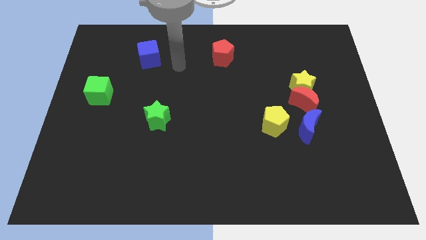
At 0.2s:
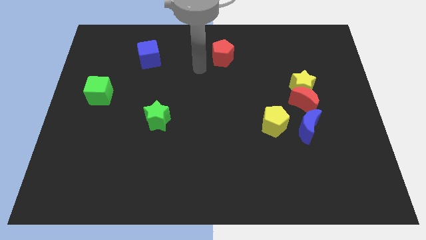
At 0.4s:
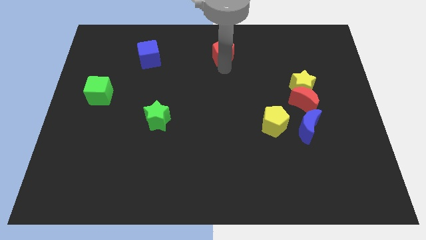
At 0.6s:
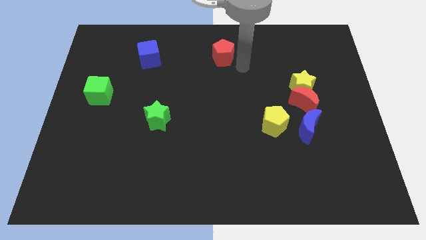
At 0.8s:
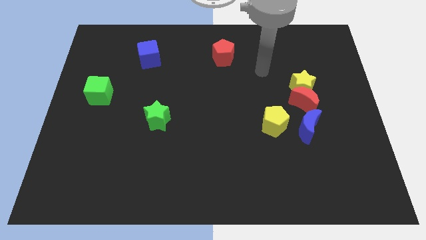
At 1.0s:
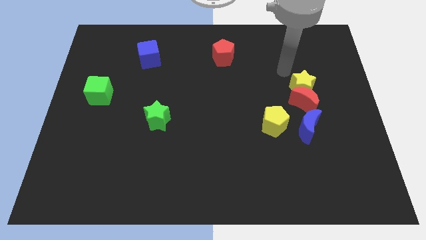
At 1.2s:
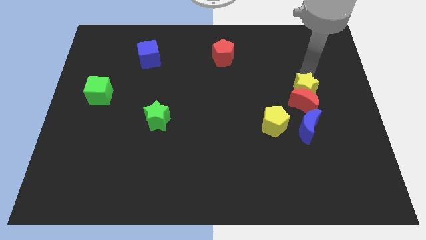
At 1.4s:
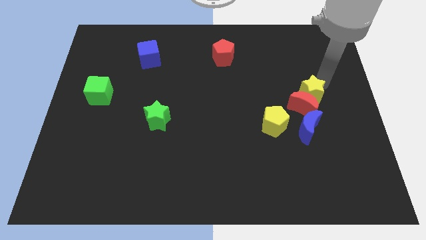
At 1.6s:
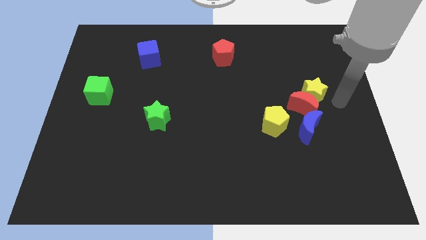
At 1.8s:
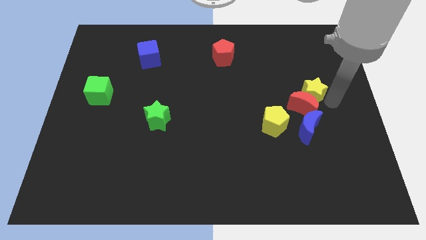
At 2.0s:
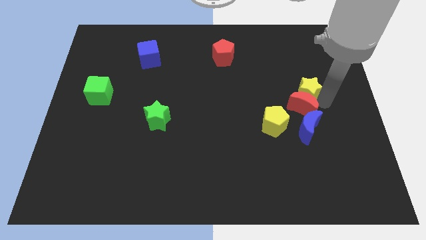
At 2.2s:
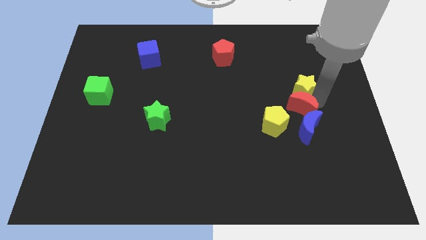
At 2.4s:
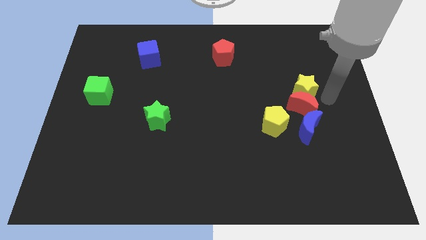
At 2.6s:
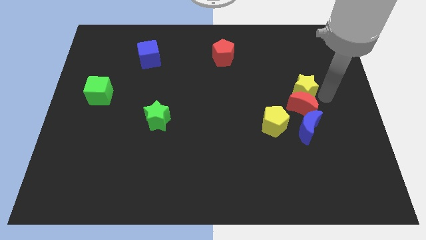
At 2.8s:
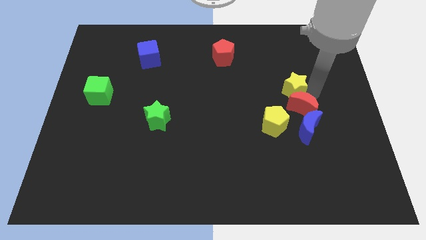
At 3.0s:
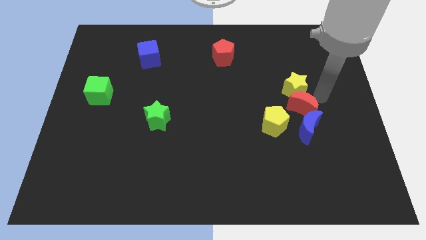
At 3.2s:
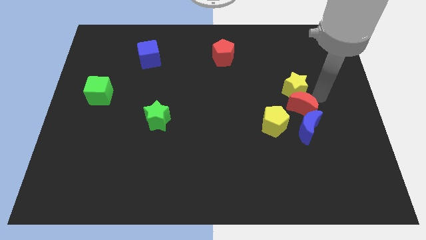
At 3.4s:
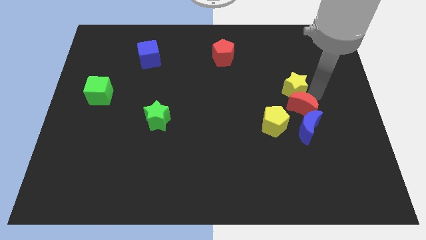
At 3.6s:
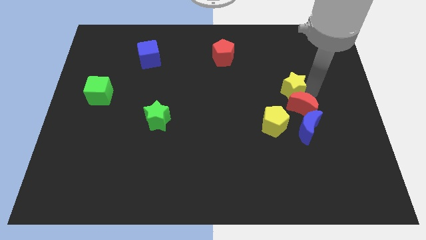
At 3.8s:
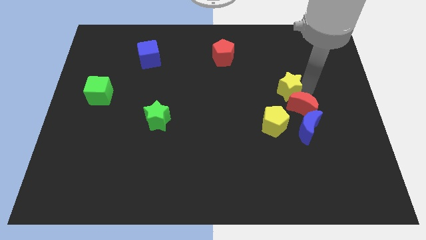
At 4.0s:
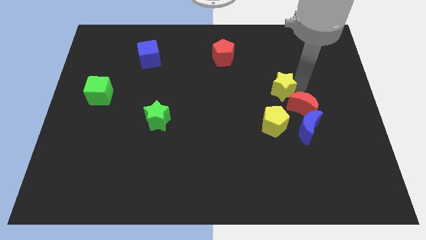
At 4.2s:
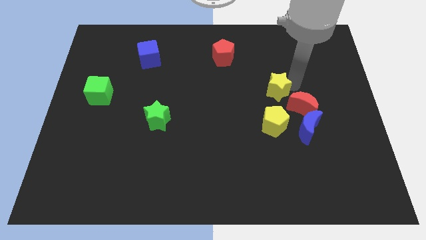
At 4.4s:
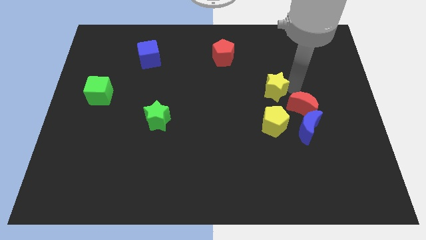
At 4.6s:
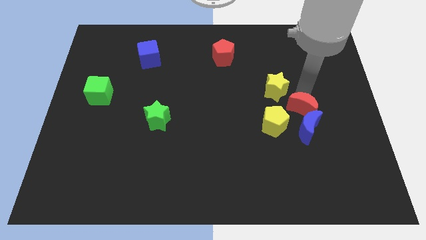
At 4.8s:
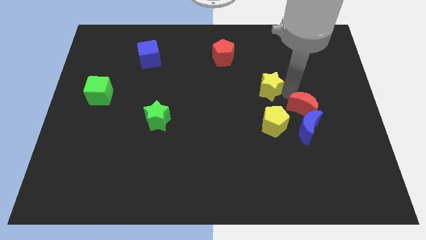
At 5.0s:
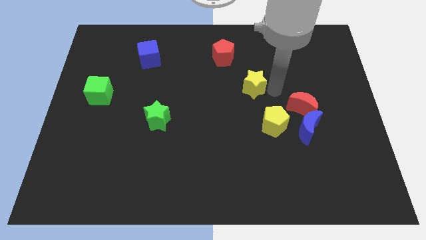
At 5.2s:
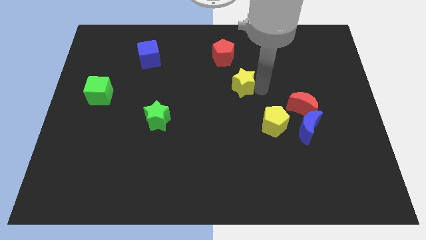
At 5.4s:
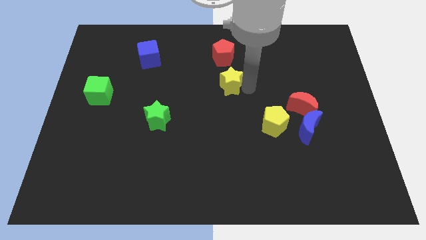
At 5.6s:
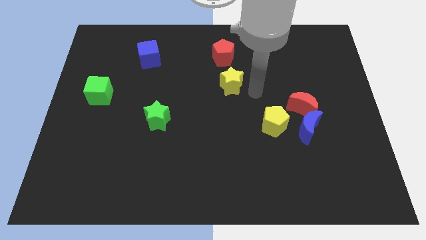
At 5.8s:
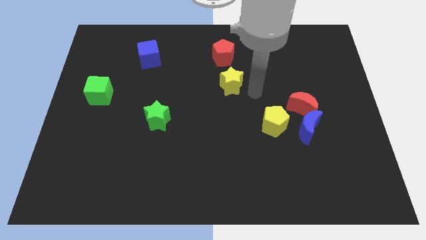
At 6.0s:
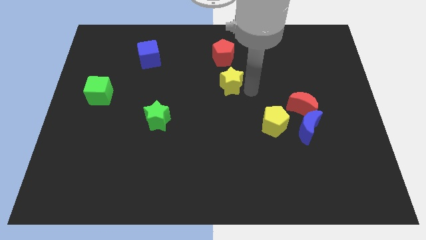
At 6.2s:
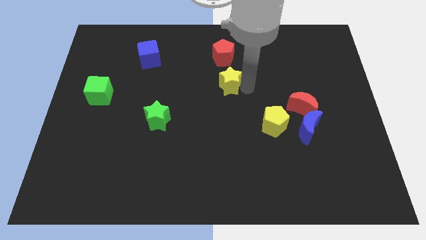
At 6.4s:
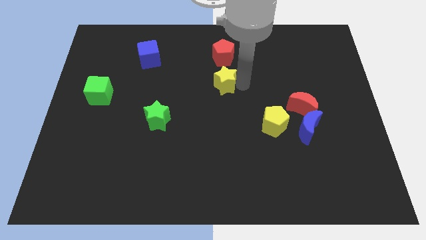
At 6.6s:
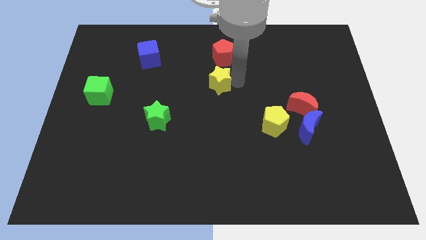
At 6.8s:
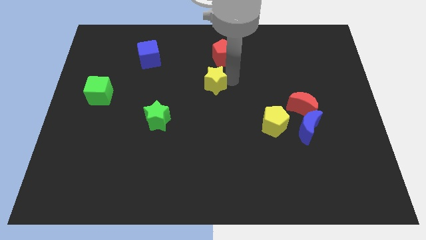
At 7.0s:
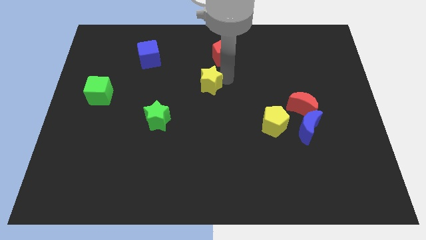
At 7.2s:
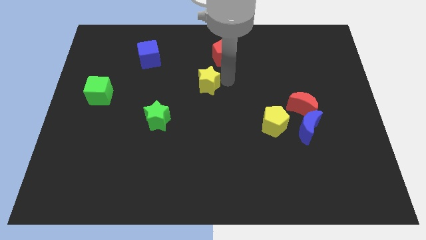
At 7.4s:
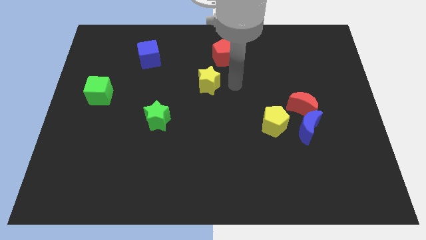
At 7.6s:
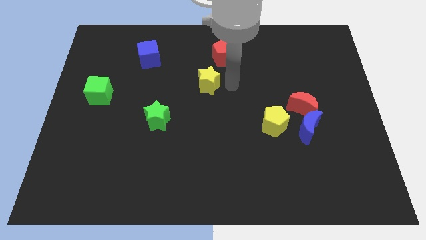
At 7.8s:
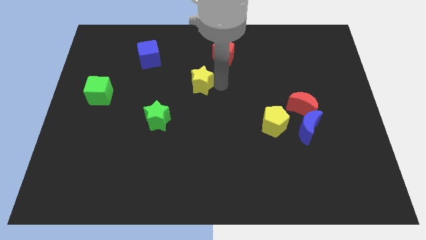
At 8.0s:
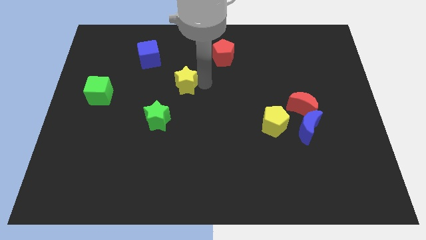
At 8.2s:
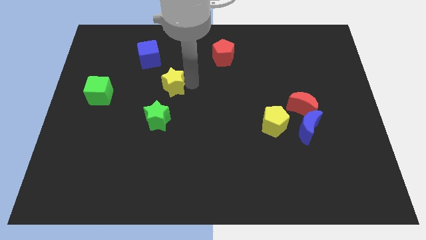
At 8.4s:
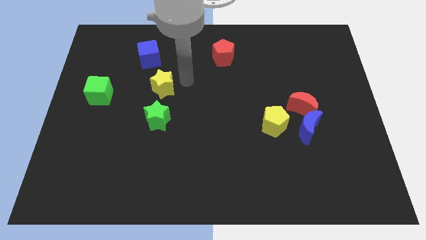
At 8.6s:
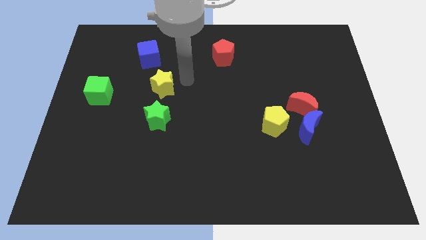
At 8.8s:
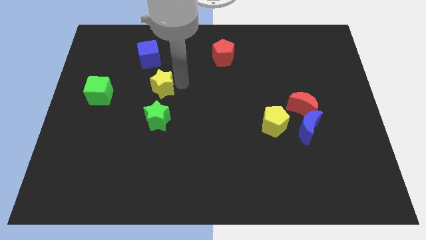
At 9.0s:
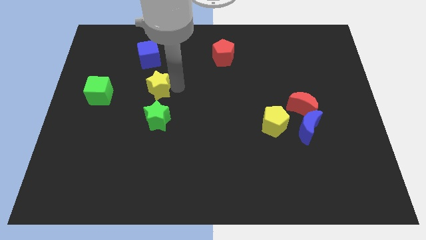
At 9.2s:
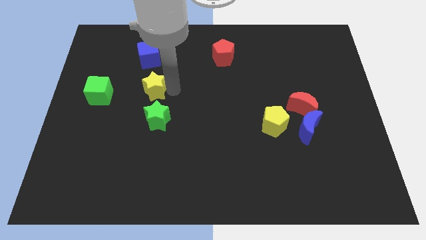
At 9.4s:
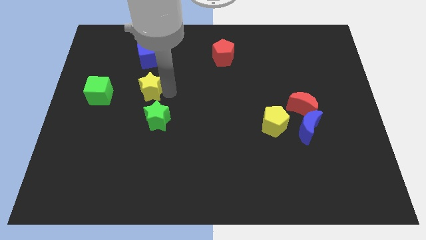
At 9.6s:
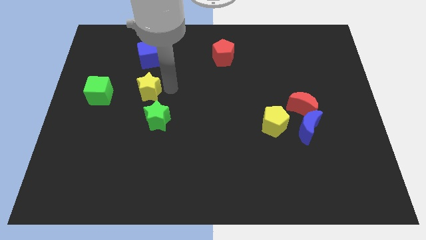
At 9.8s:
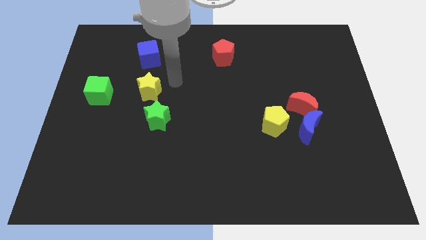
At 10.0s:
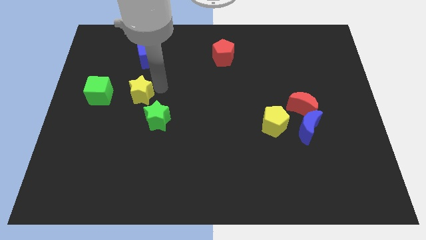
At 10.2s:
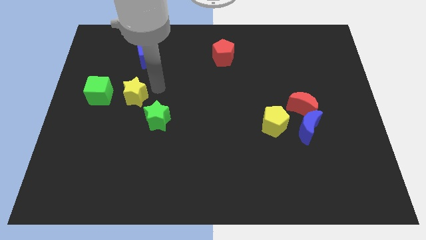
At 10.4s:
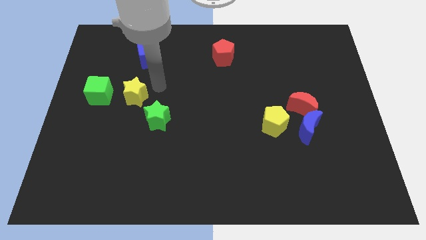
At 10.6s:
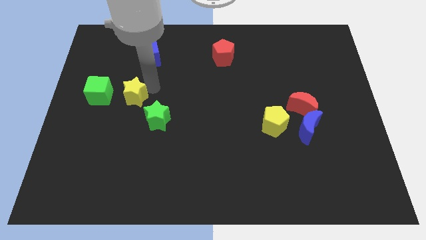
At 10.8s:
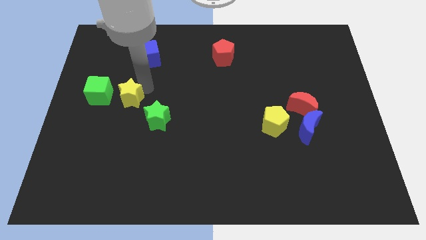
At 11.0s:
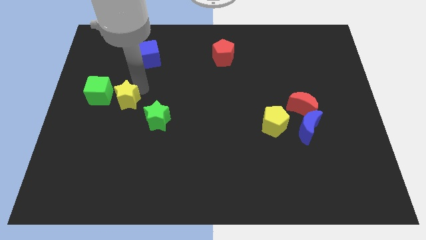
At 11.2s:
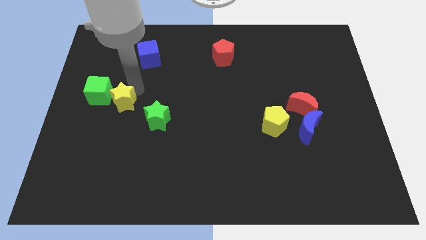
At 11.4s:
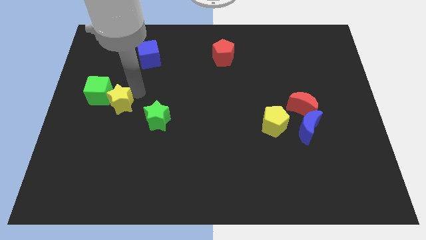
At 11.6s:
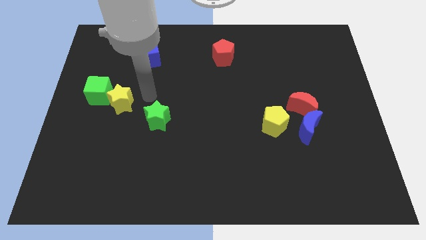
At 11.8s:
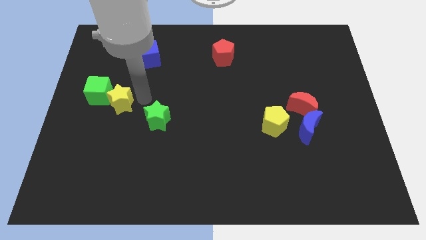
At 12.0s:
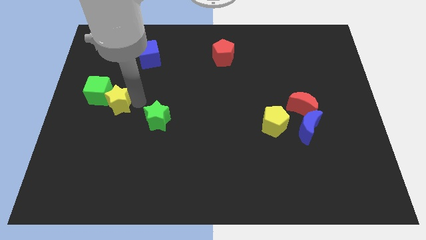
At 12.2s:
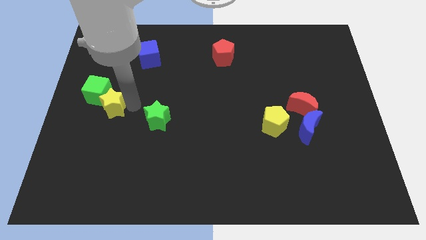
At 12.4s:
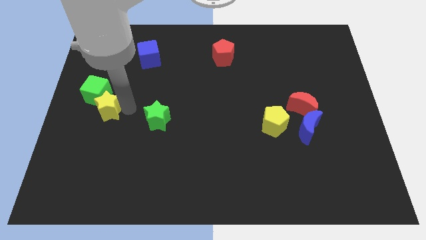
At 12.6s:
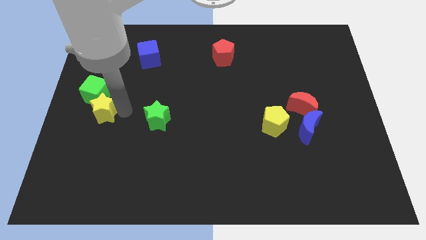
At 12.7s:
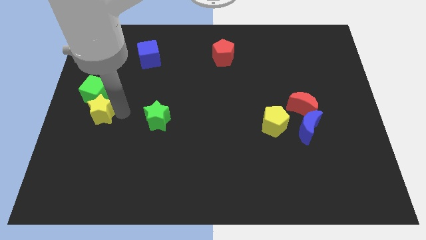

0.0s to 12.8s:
push the yellow star to the left side of the board

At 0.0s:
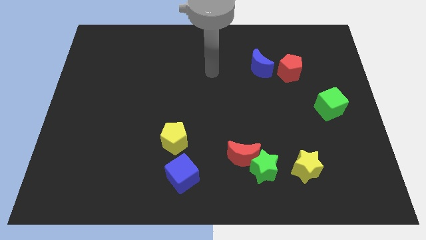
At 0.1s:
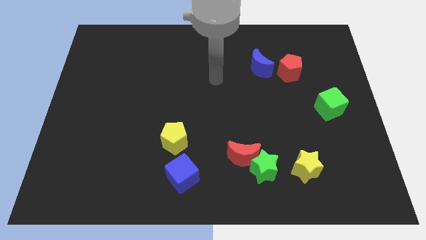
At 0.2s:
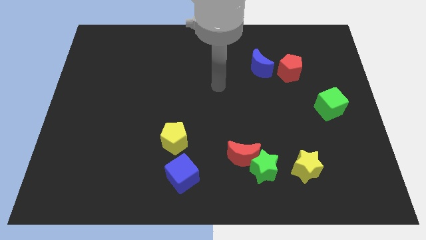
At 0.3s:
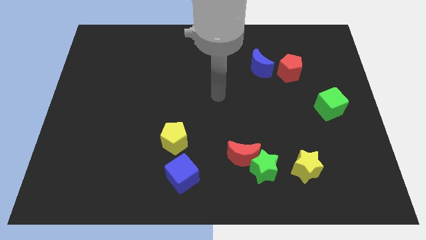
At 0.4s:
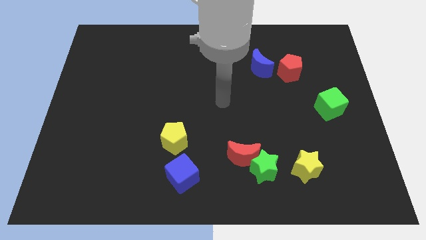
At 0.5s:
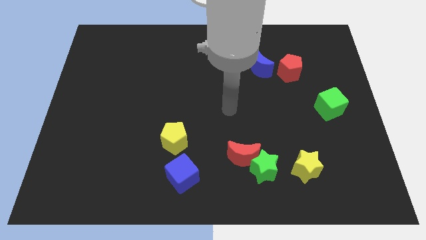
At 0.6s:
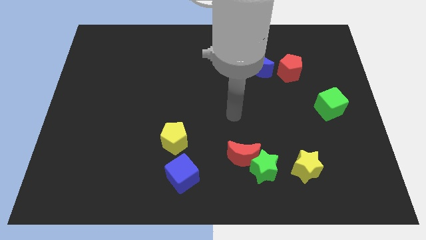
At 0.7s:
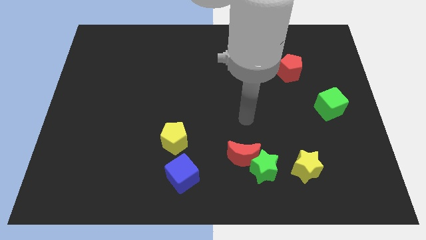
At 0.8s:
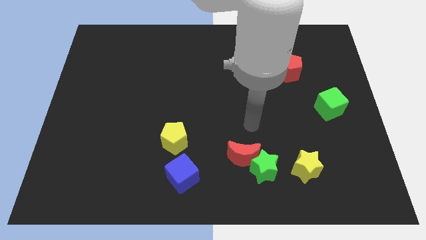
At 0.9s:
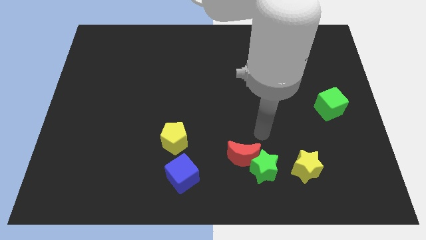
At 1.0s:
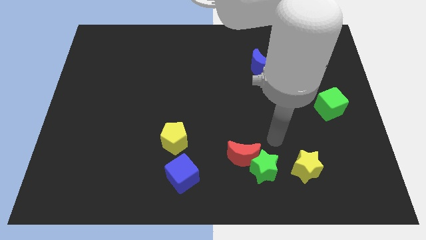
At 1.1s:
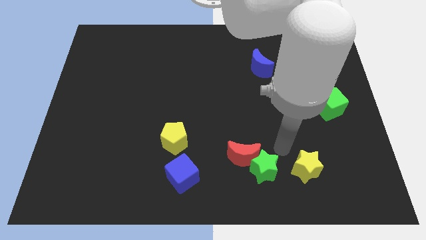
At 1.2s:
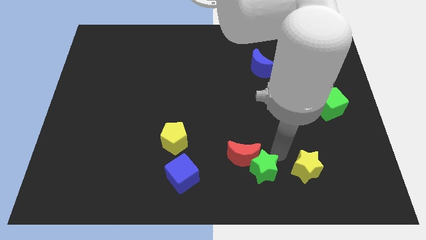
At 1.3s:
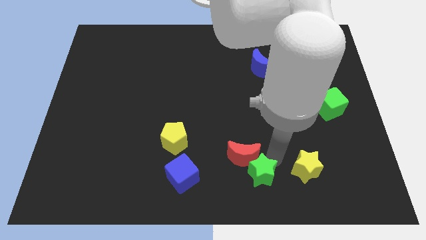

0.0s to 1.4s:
slide the green star to the bottom side
